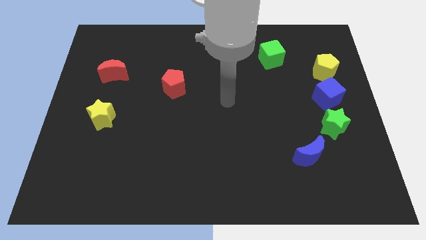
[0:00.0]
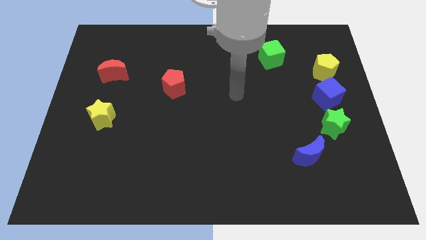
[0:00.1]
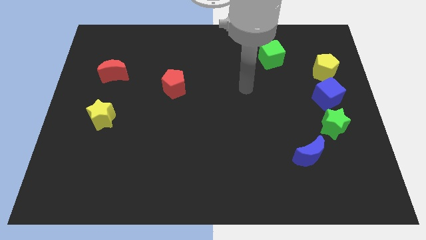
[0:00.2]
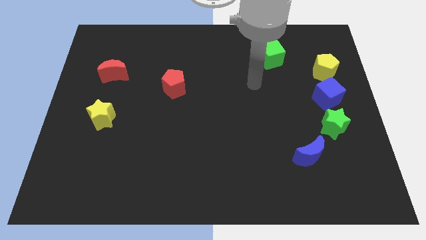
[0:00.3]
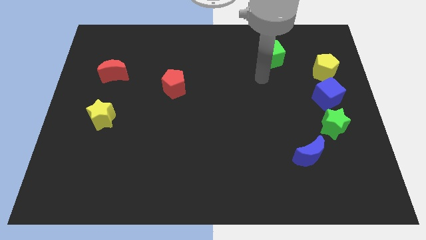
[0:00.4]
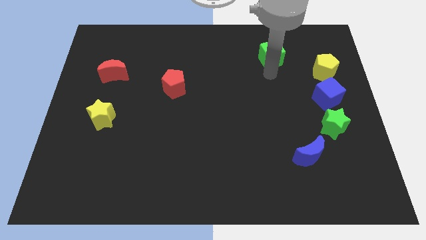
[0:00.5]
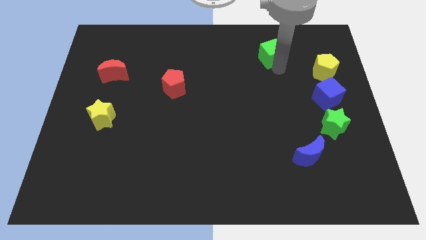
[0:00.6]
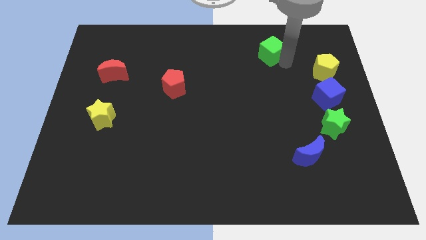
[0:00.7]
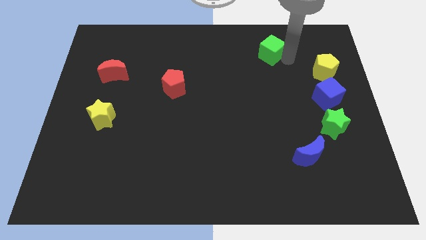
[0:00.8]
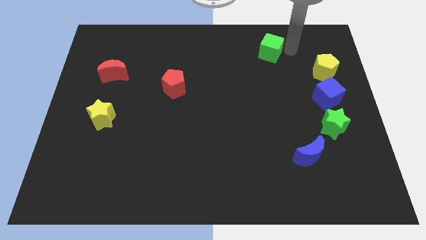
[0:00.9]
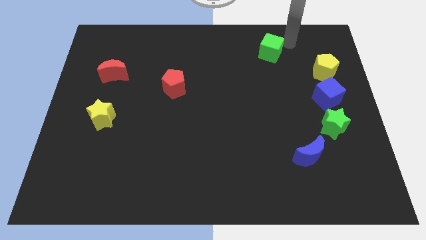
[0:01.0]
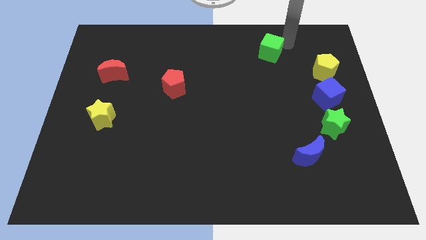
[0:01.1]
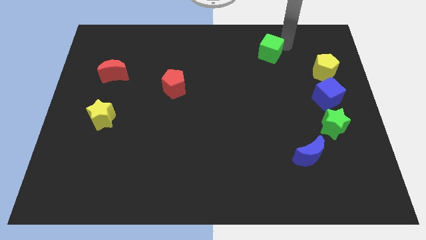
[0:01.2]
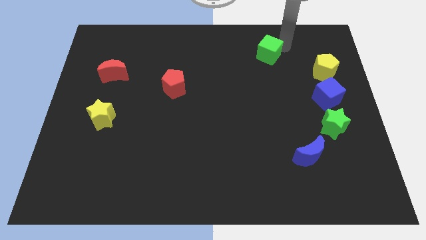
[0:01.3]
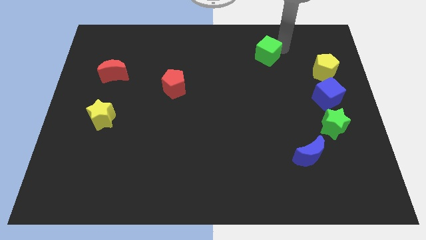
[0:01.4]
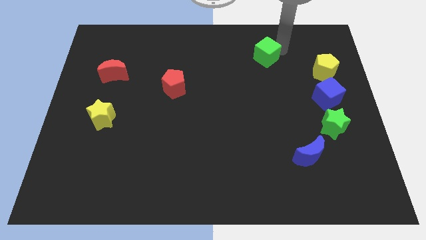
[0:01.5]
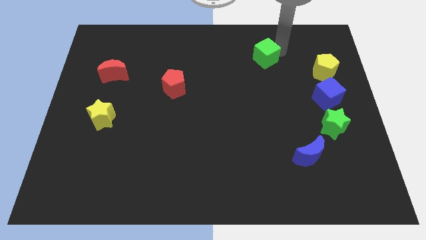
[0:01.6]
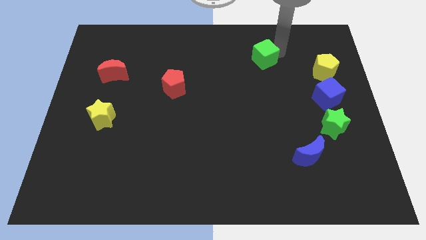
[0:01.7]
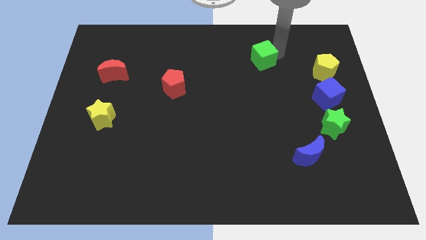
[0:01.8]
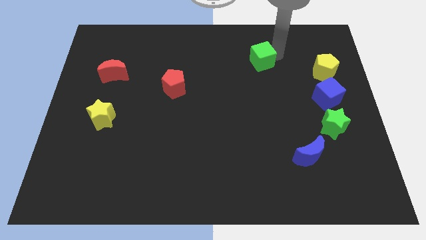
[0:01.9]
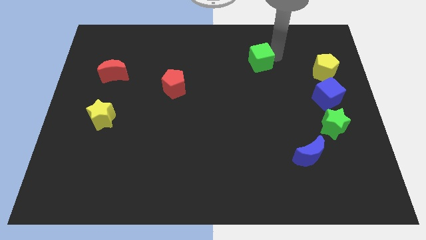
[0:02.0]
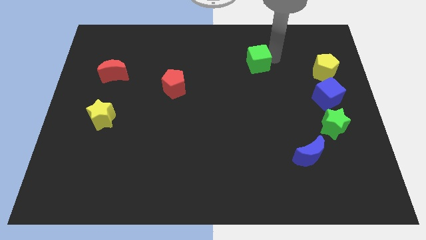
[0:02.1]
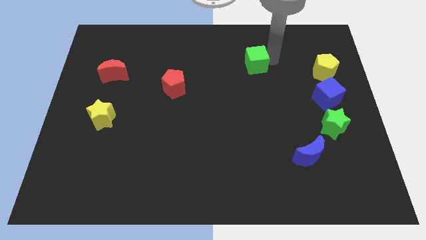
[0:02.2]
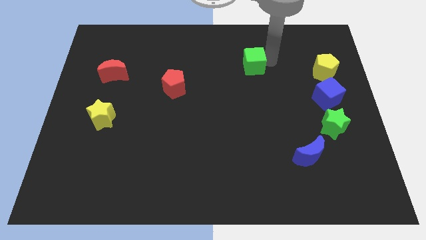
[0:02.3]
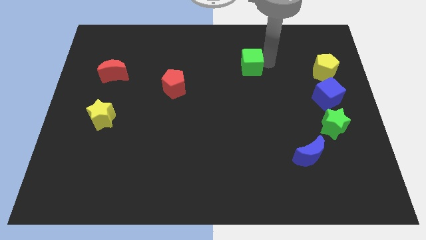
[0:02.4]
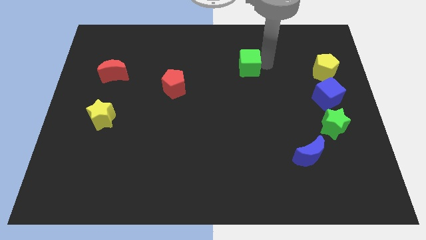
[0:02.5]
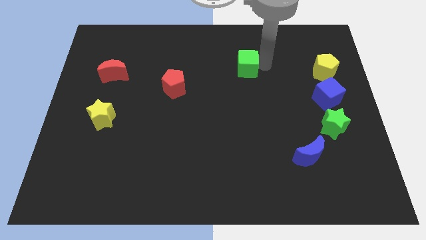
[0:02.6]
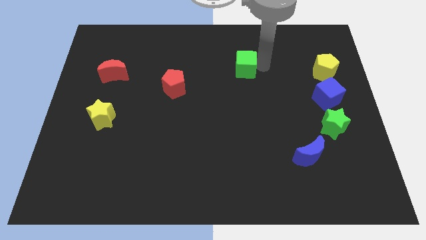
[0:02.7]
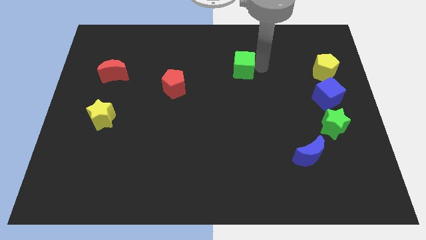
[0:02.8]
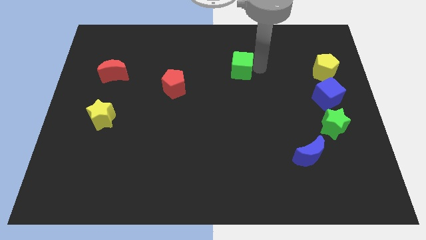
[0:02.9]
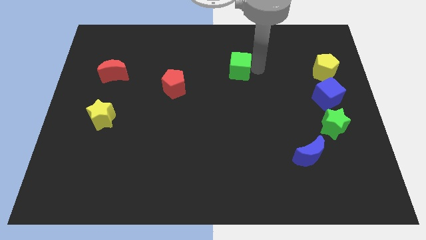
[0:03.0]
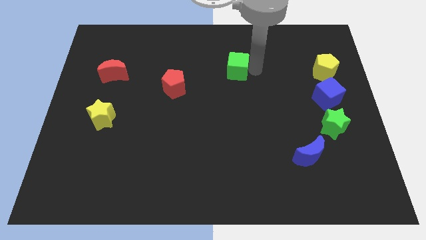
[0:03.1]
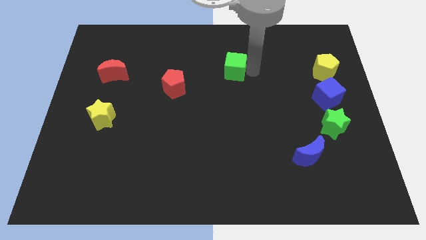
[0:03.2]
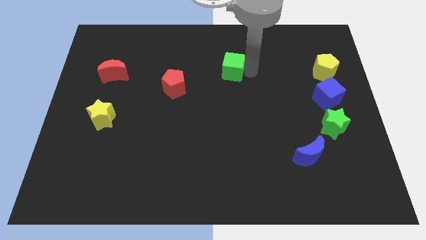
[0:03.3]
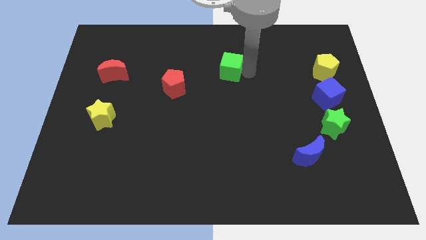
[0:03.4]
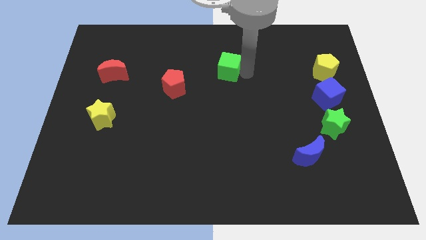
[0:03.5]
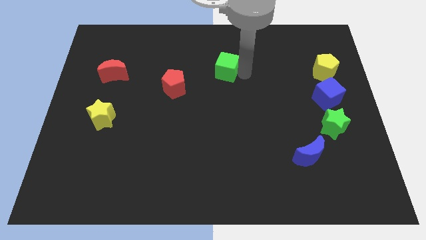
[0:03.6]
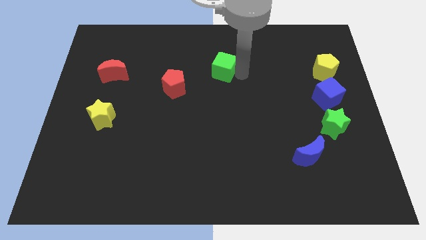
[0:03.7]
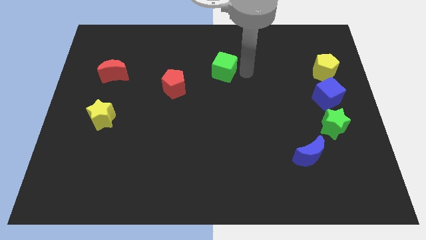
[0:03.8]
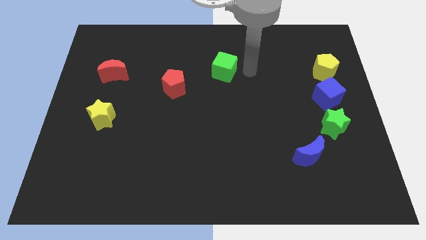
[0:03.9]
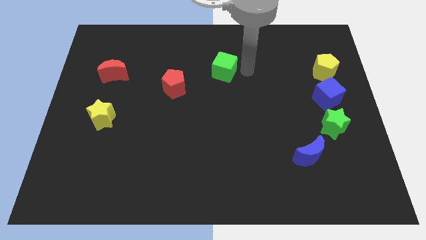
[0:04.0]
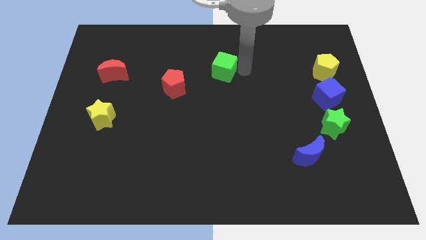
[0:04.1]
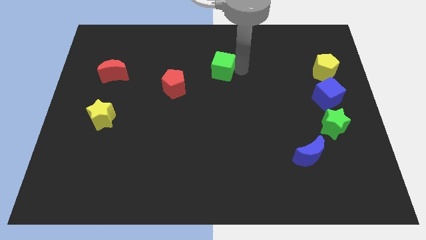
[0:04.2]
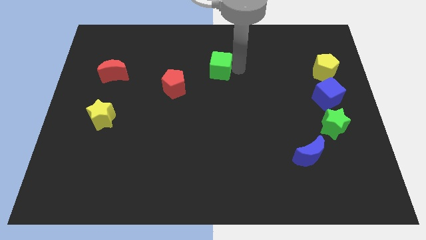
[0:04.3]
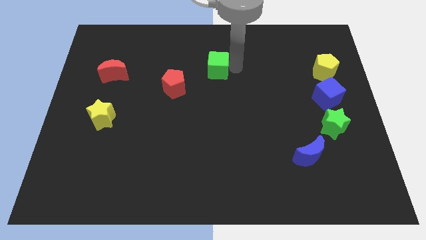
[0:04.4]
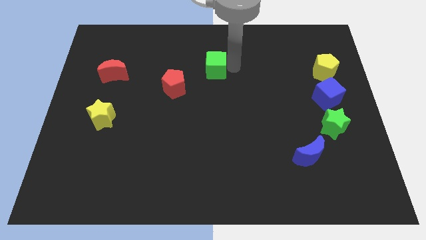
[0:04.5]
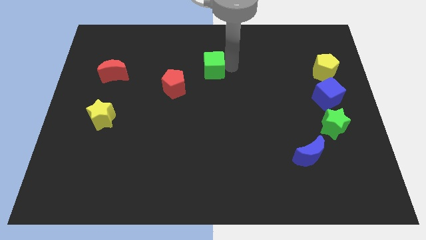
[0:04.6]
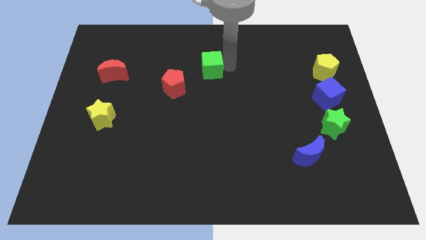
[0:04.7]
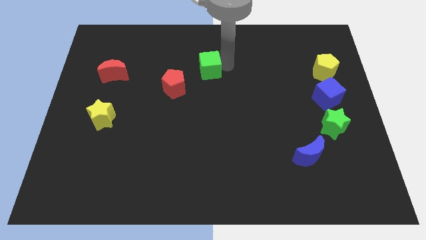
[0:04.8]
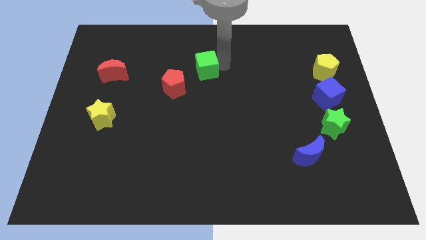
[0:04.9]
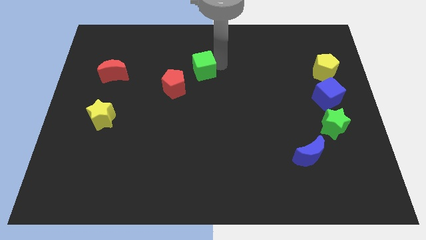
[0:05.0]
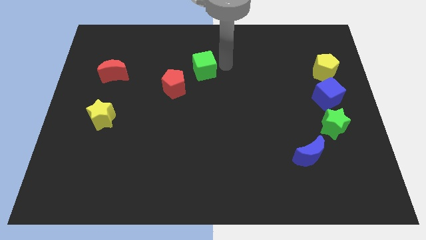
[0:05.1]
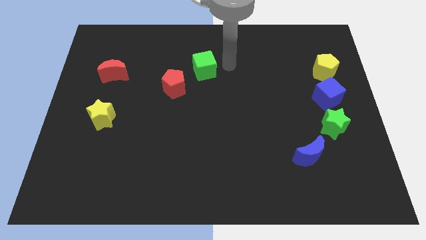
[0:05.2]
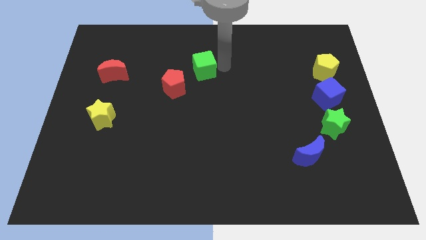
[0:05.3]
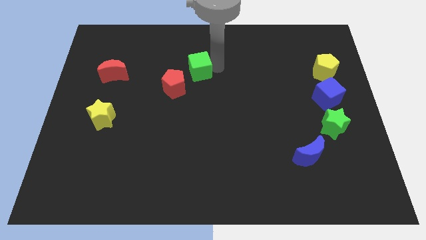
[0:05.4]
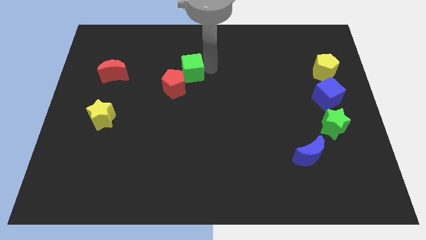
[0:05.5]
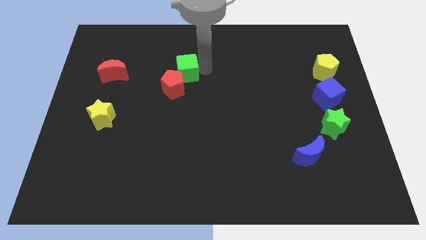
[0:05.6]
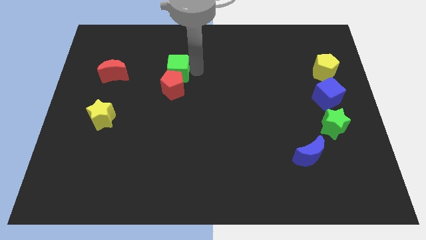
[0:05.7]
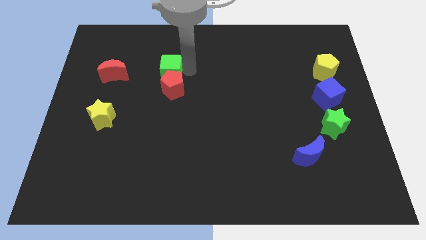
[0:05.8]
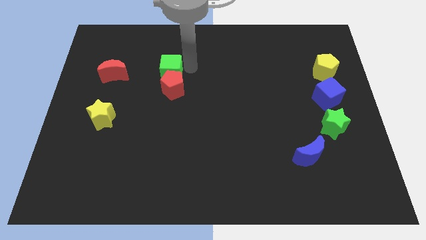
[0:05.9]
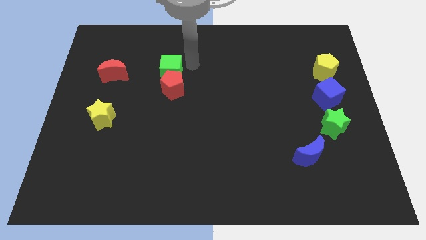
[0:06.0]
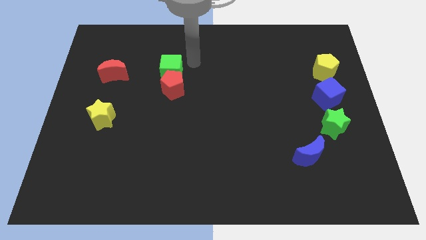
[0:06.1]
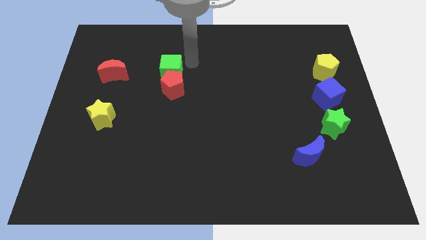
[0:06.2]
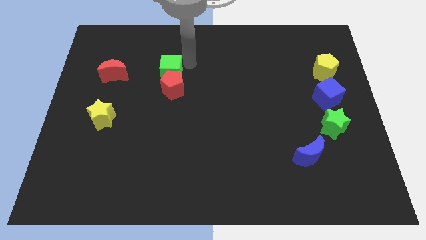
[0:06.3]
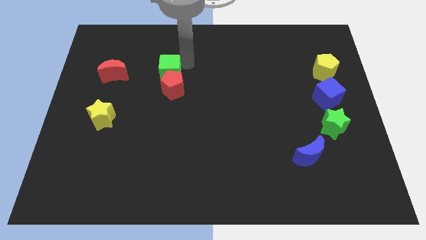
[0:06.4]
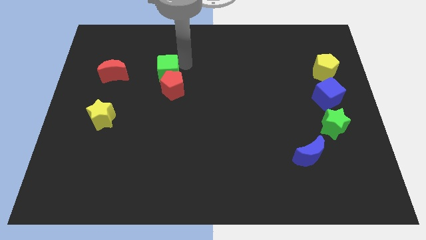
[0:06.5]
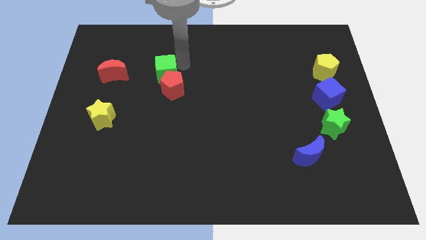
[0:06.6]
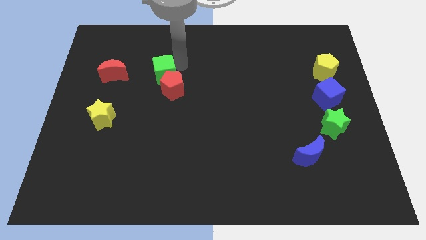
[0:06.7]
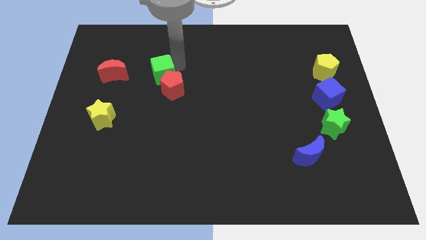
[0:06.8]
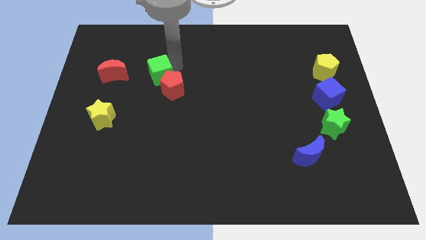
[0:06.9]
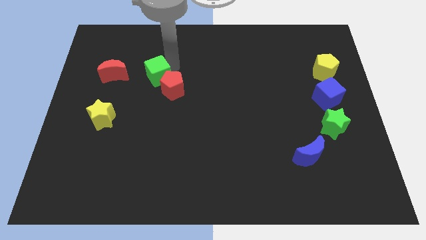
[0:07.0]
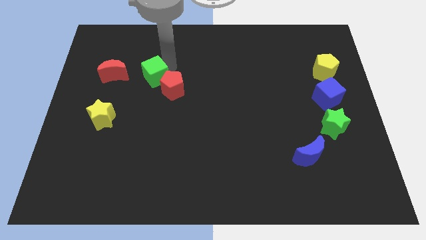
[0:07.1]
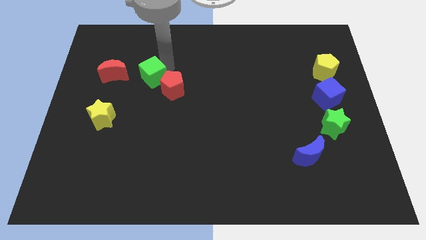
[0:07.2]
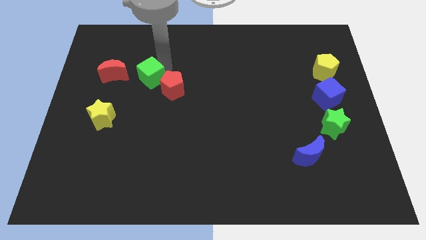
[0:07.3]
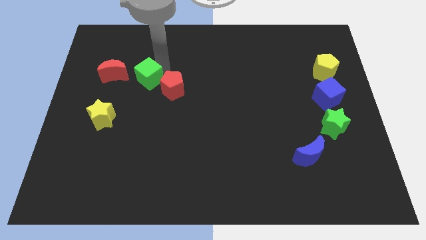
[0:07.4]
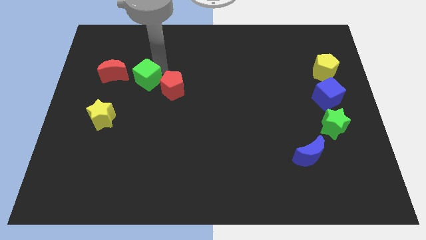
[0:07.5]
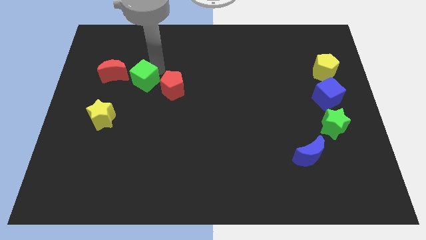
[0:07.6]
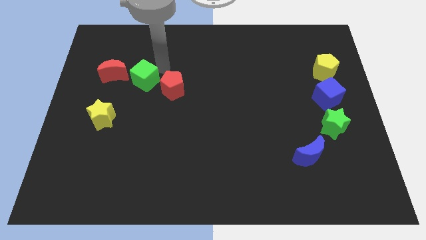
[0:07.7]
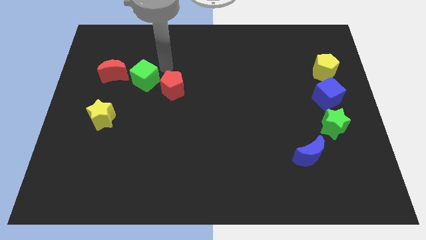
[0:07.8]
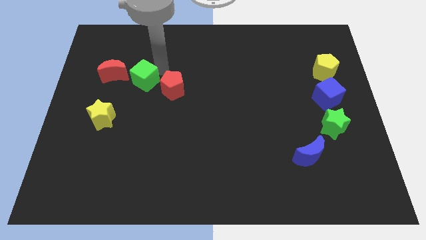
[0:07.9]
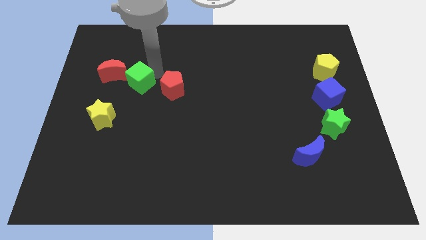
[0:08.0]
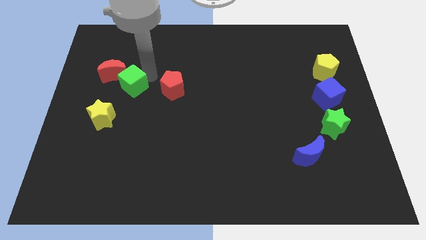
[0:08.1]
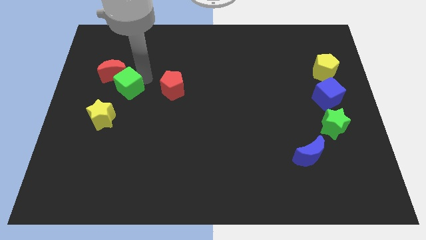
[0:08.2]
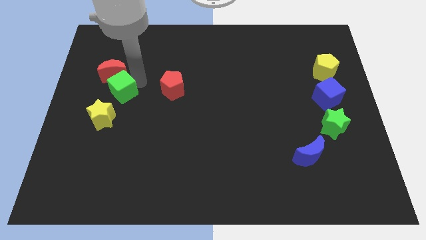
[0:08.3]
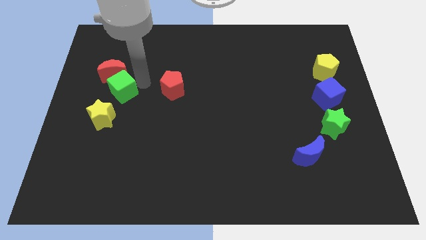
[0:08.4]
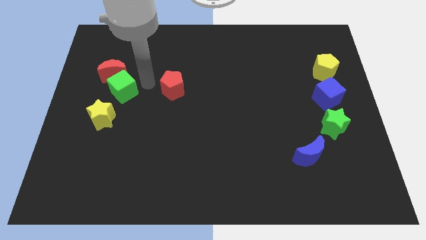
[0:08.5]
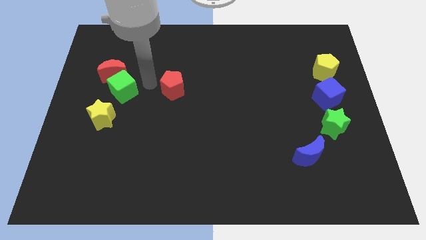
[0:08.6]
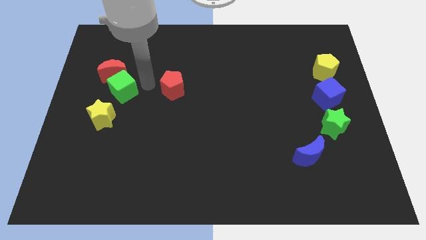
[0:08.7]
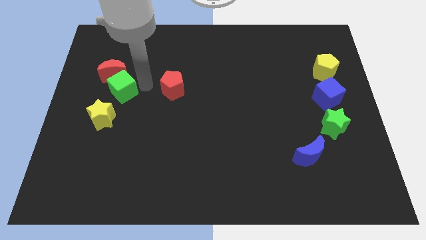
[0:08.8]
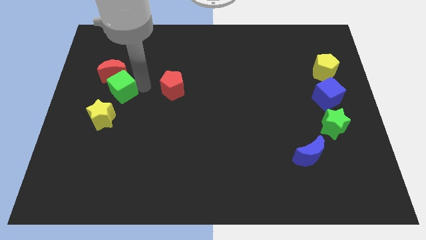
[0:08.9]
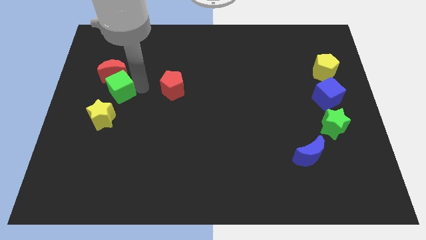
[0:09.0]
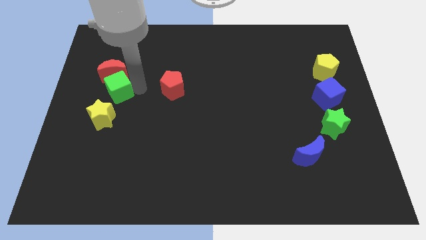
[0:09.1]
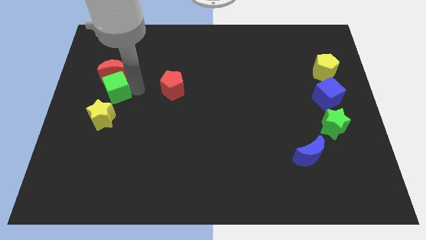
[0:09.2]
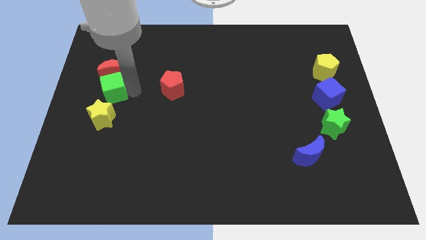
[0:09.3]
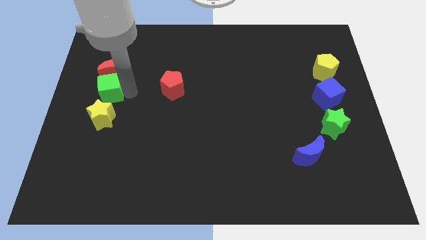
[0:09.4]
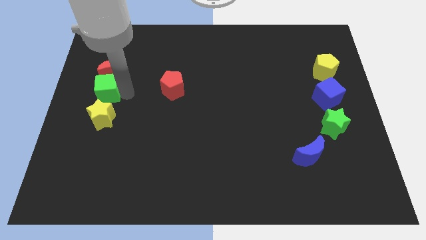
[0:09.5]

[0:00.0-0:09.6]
put the green cube to the left side of the board
